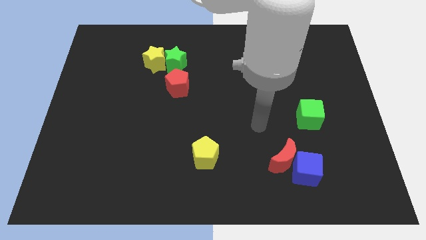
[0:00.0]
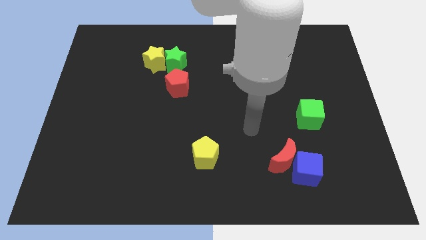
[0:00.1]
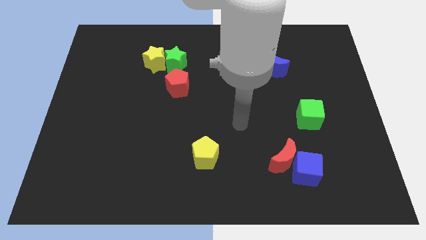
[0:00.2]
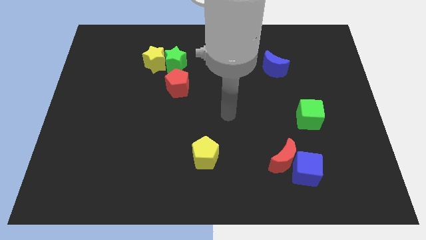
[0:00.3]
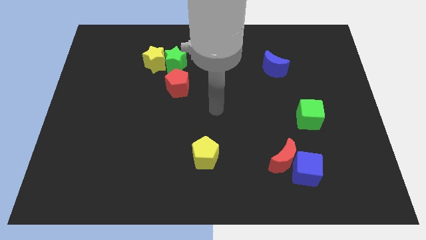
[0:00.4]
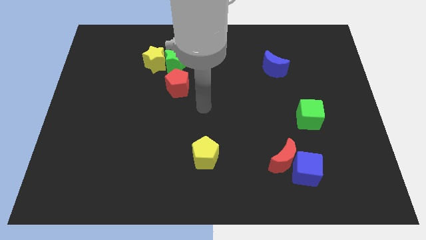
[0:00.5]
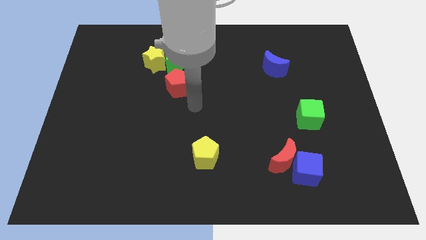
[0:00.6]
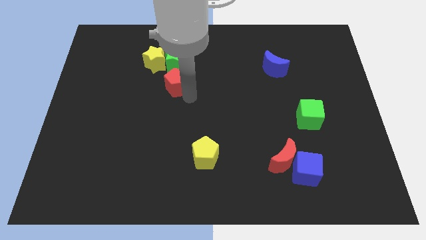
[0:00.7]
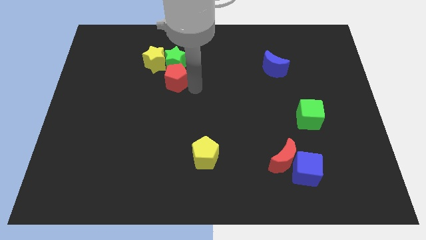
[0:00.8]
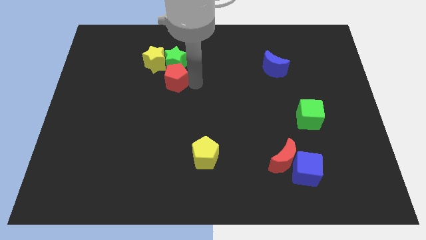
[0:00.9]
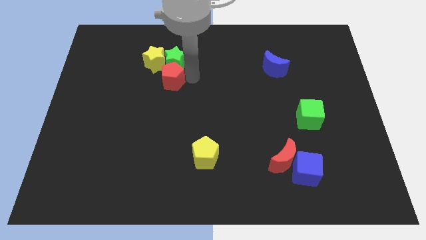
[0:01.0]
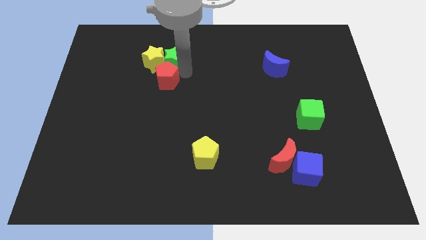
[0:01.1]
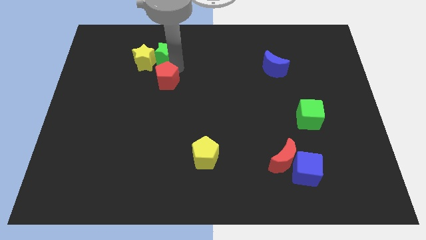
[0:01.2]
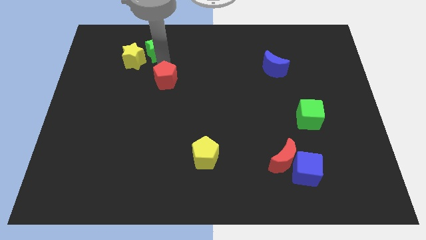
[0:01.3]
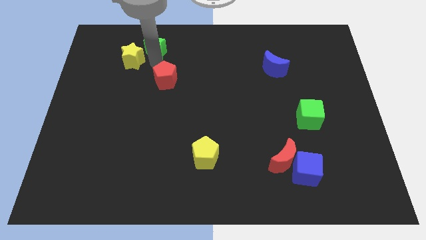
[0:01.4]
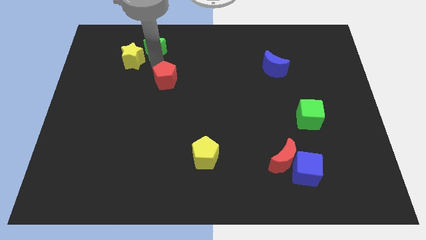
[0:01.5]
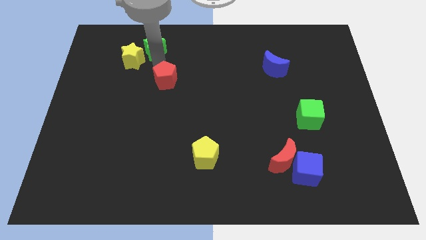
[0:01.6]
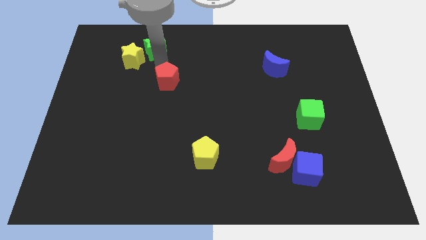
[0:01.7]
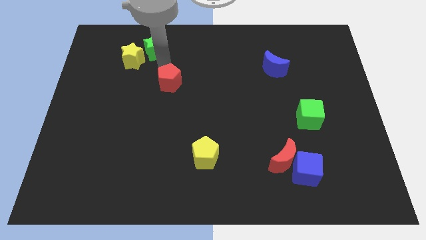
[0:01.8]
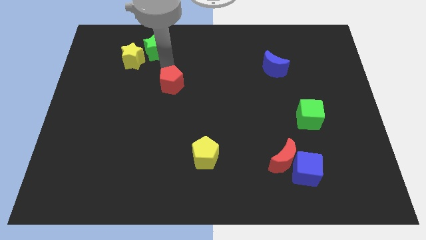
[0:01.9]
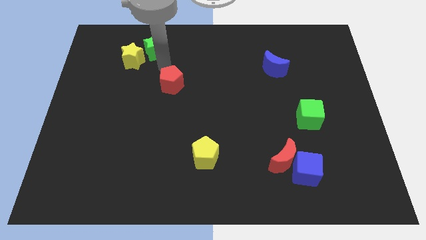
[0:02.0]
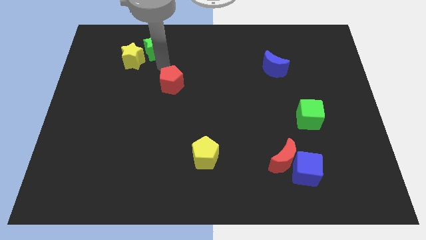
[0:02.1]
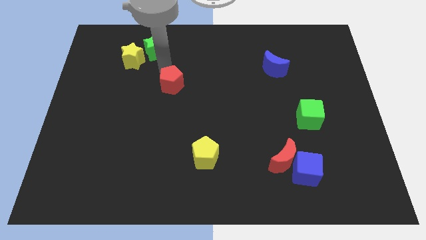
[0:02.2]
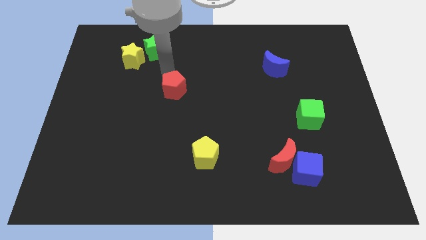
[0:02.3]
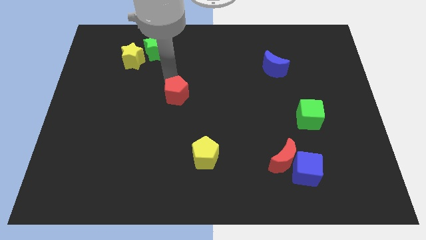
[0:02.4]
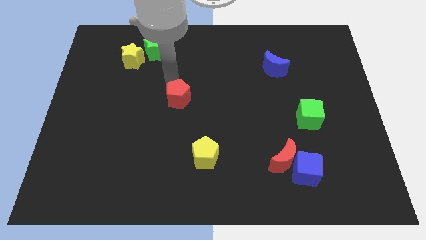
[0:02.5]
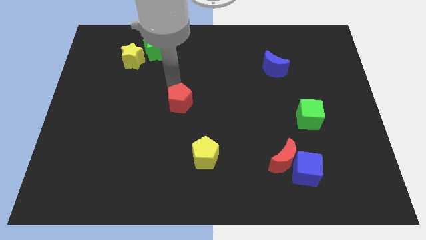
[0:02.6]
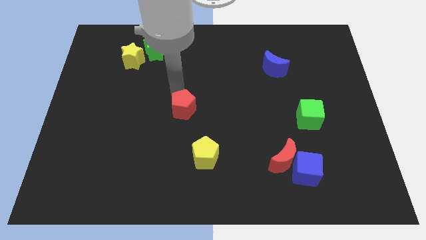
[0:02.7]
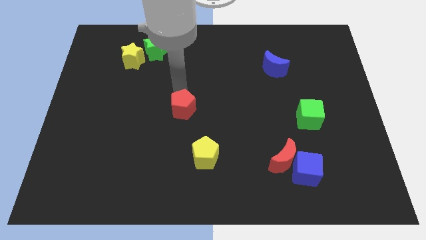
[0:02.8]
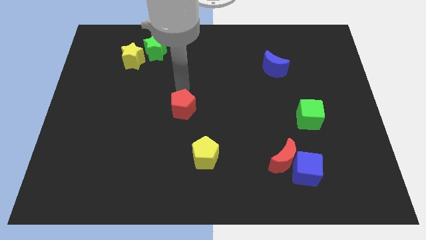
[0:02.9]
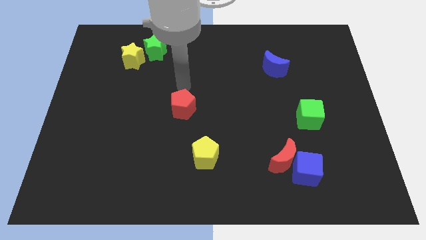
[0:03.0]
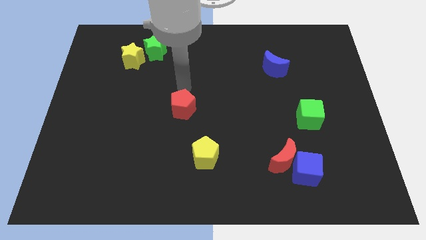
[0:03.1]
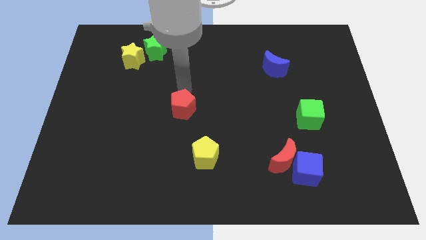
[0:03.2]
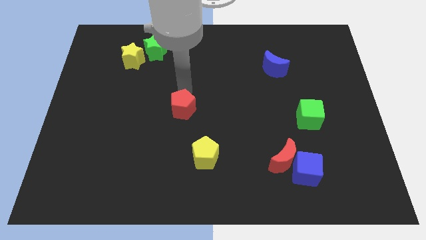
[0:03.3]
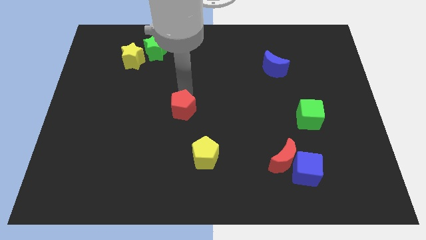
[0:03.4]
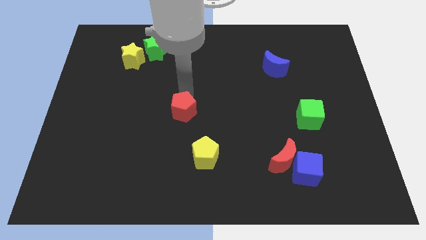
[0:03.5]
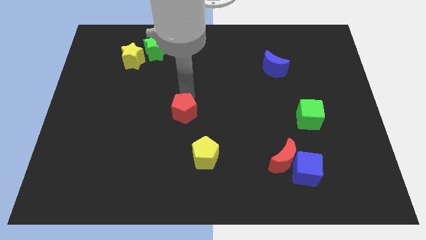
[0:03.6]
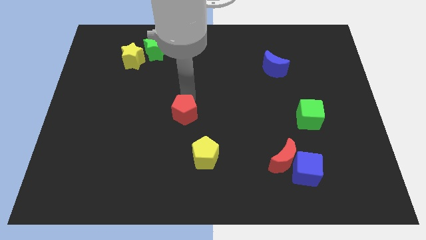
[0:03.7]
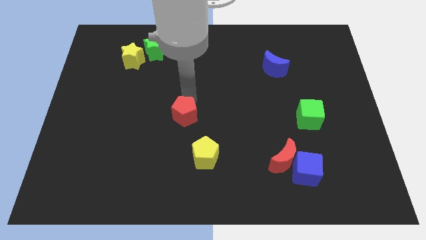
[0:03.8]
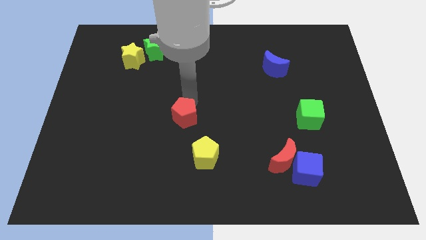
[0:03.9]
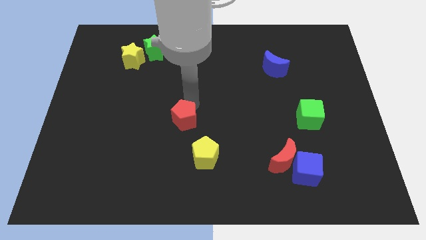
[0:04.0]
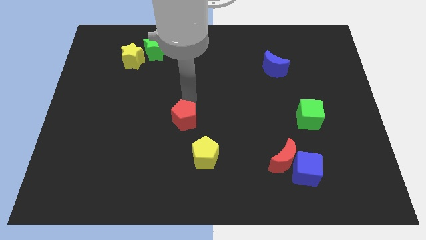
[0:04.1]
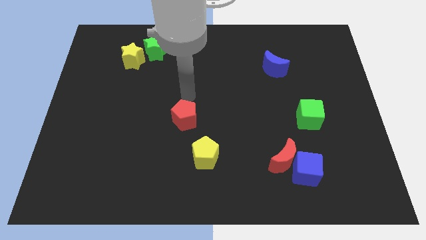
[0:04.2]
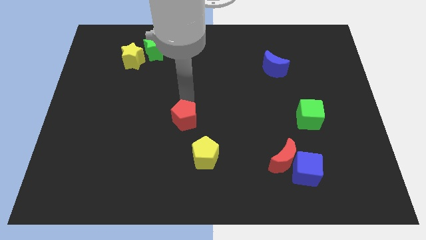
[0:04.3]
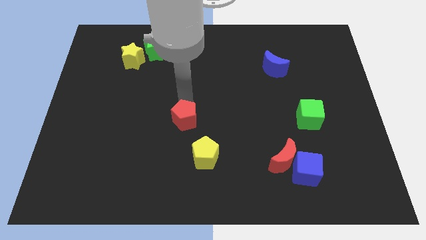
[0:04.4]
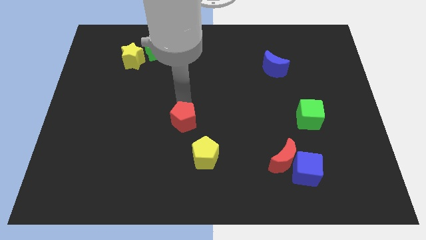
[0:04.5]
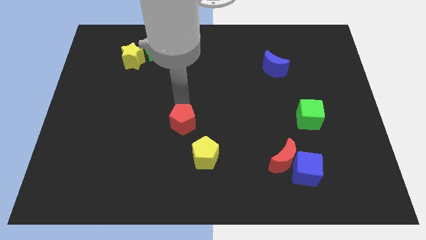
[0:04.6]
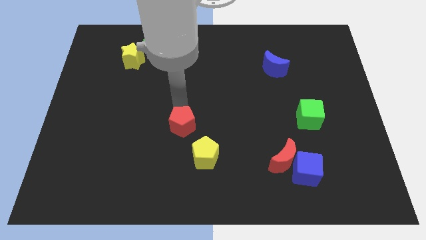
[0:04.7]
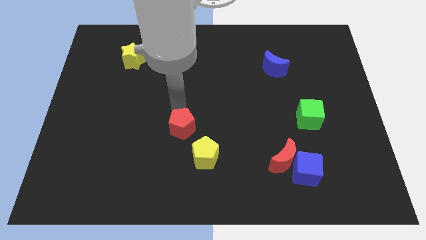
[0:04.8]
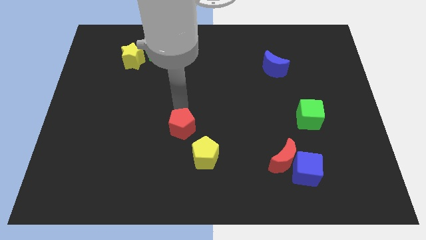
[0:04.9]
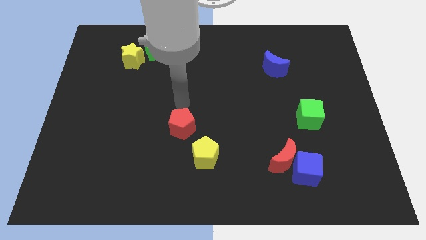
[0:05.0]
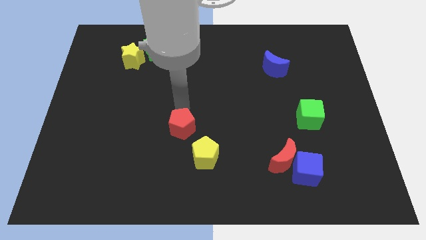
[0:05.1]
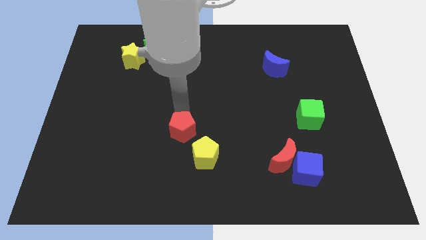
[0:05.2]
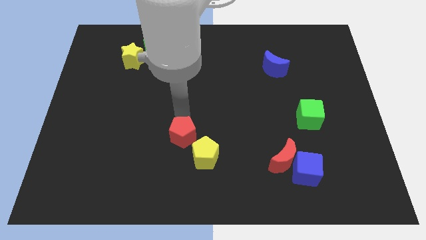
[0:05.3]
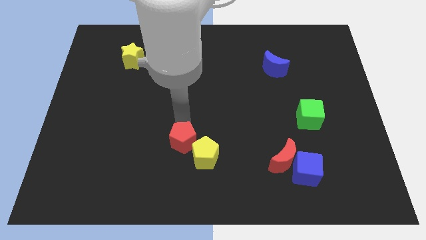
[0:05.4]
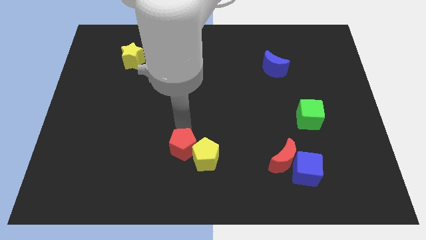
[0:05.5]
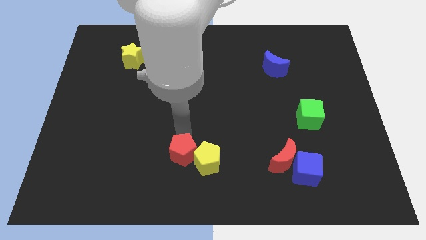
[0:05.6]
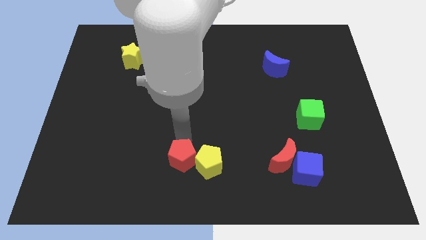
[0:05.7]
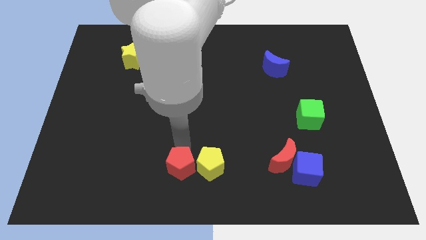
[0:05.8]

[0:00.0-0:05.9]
move the red pentagon to the bottom side
